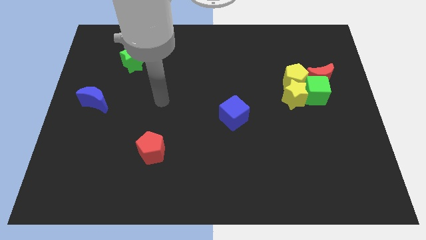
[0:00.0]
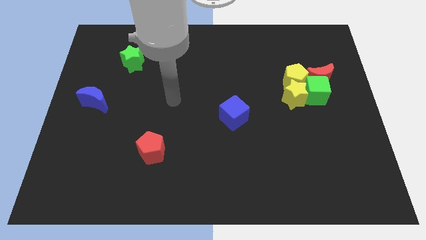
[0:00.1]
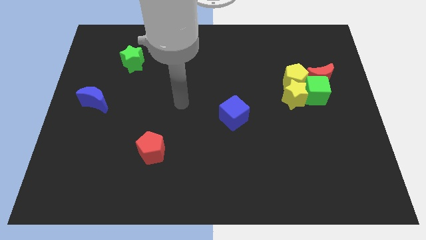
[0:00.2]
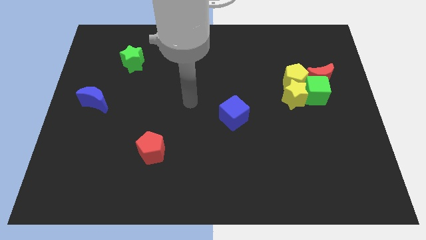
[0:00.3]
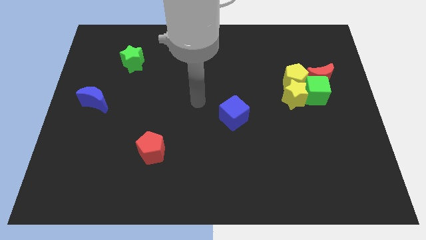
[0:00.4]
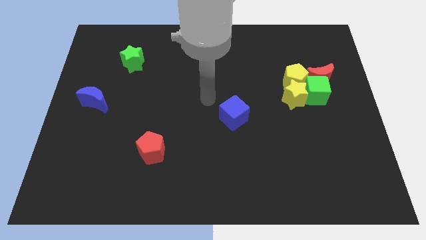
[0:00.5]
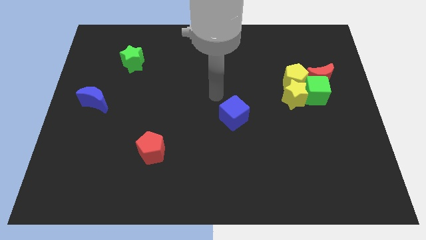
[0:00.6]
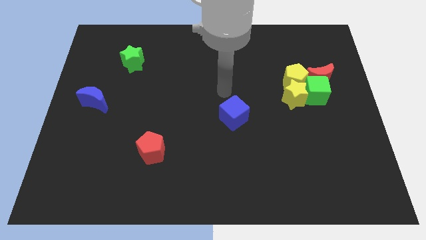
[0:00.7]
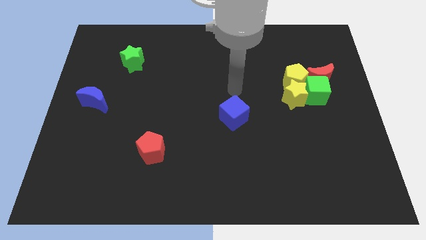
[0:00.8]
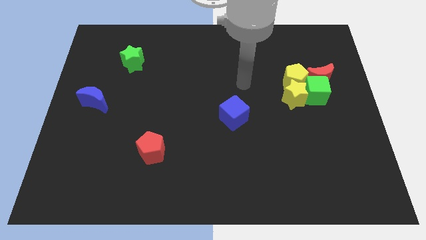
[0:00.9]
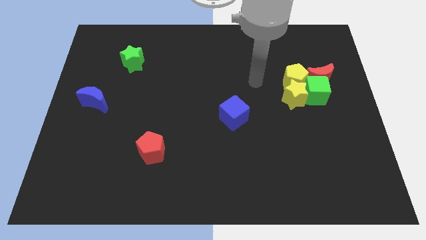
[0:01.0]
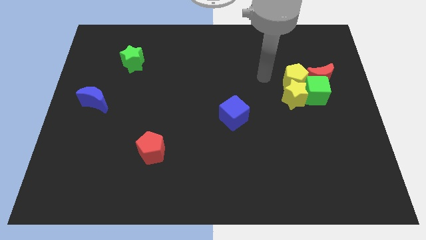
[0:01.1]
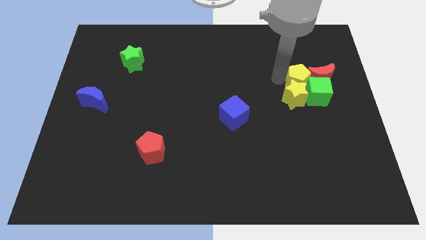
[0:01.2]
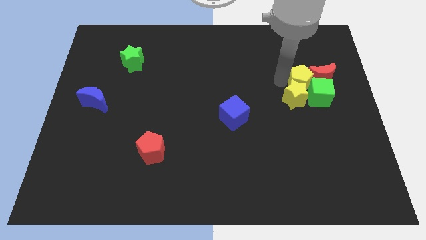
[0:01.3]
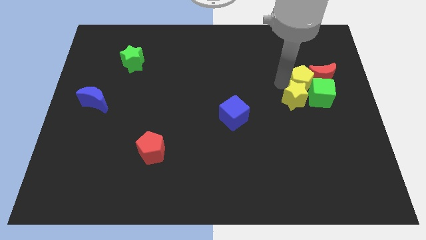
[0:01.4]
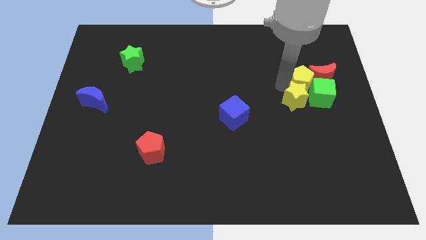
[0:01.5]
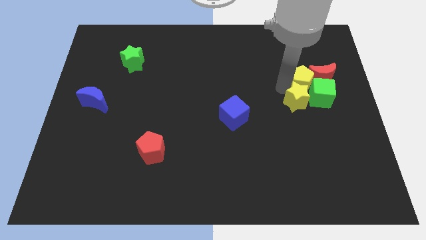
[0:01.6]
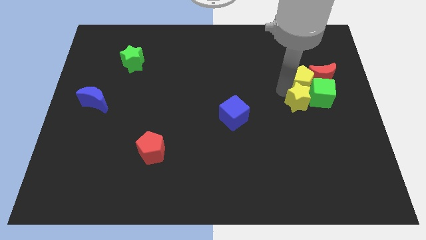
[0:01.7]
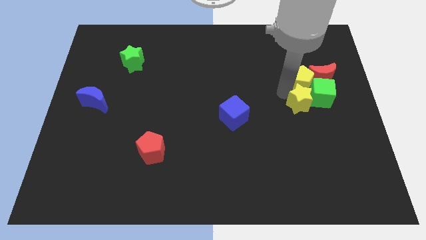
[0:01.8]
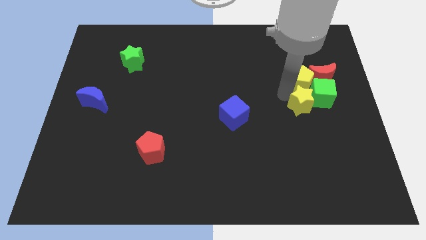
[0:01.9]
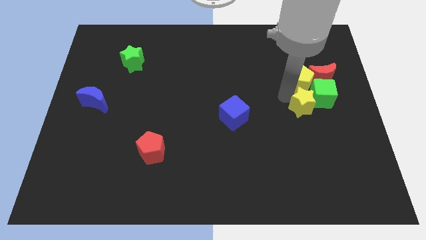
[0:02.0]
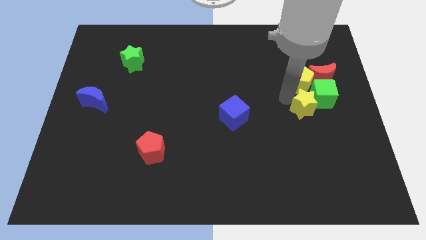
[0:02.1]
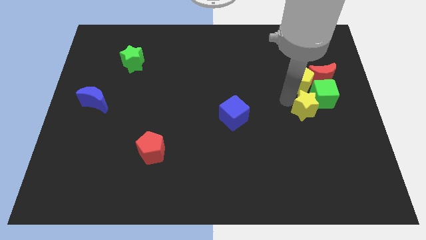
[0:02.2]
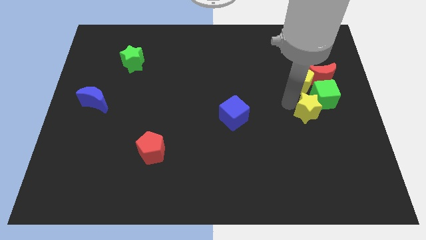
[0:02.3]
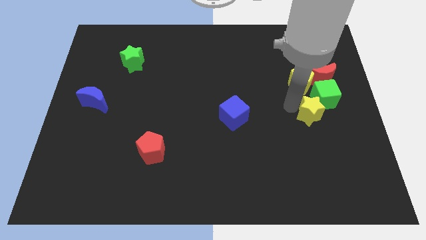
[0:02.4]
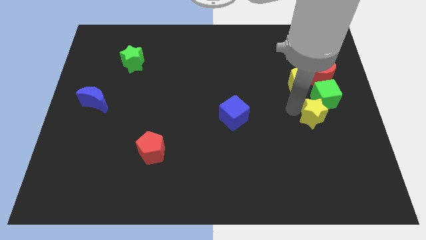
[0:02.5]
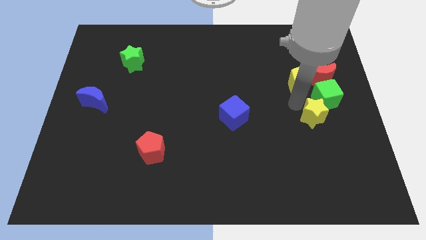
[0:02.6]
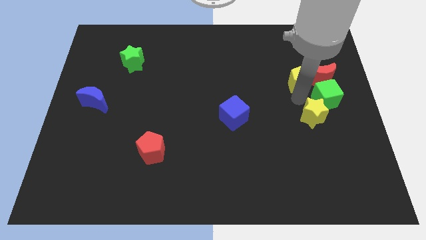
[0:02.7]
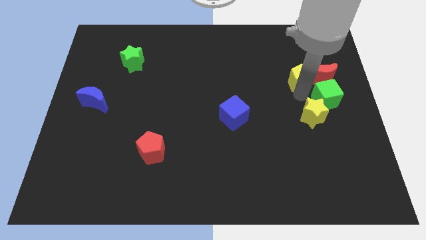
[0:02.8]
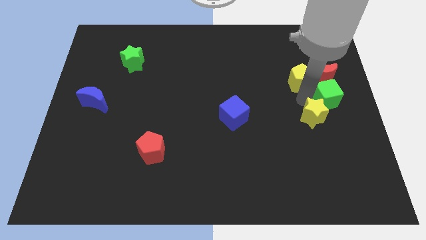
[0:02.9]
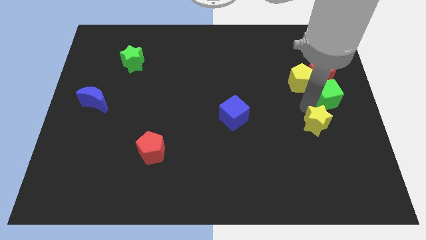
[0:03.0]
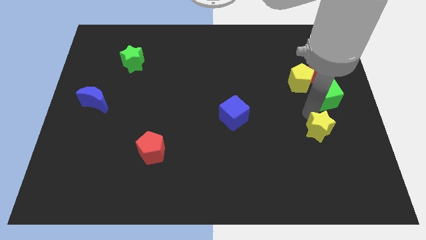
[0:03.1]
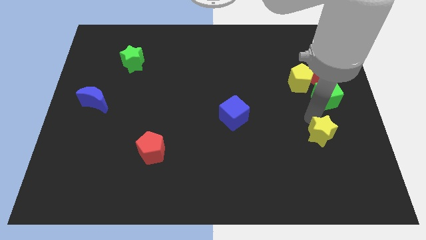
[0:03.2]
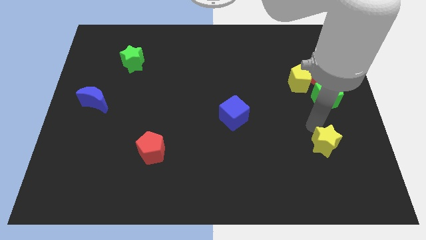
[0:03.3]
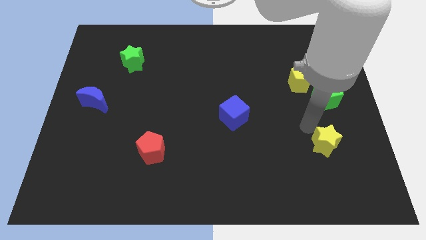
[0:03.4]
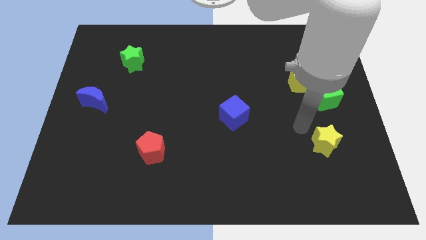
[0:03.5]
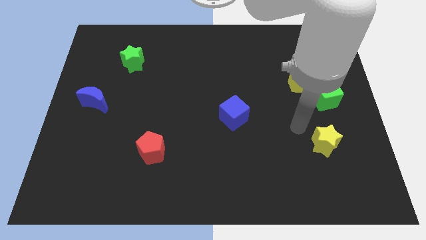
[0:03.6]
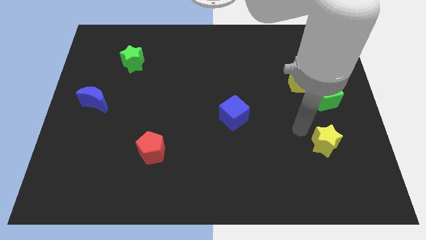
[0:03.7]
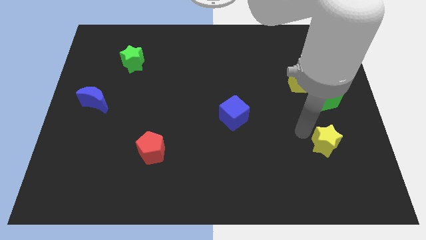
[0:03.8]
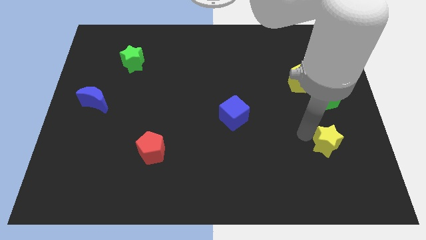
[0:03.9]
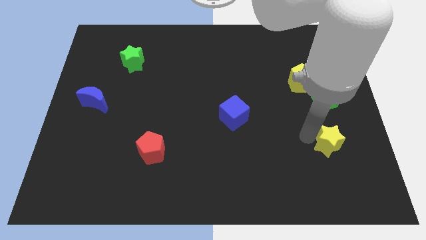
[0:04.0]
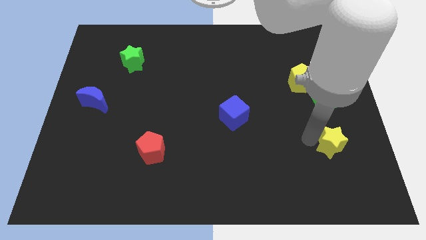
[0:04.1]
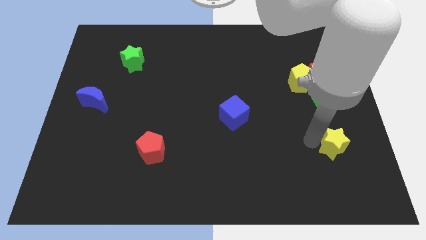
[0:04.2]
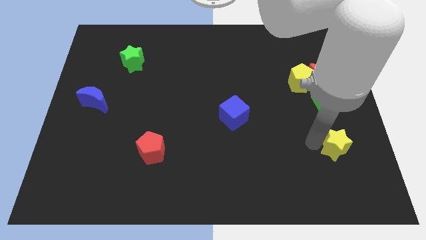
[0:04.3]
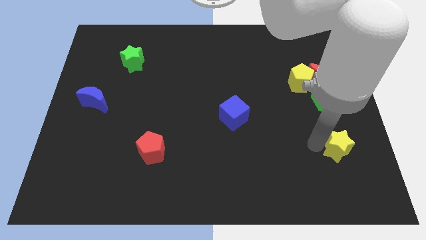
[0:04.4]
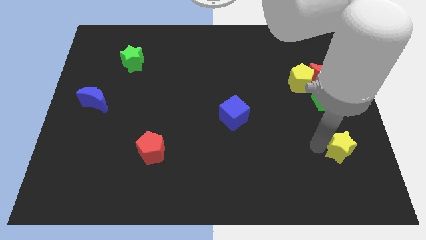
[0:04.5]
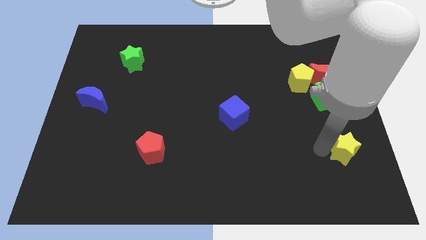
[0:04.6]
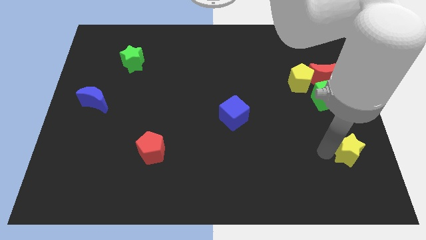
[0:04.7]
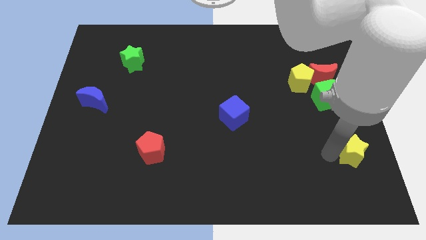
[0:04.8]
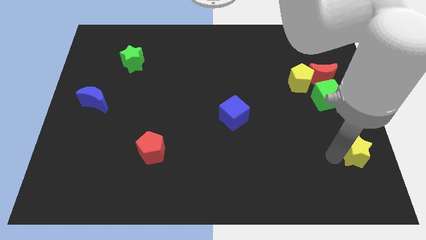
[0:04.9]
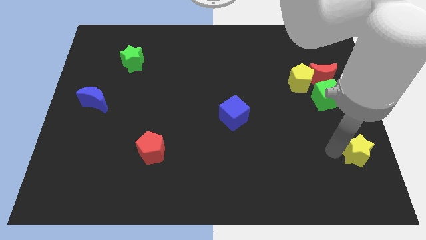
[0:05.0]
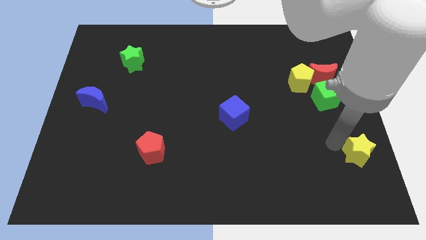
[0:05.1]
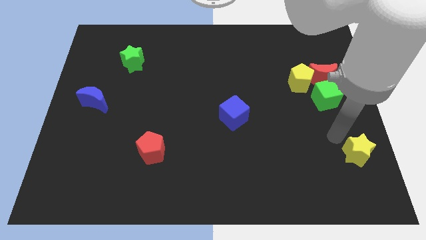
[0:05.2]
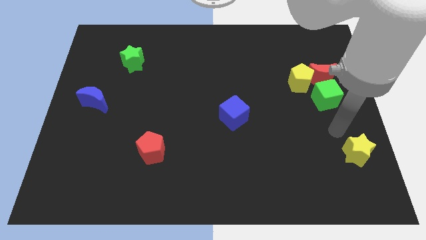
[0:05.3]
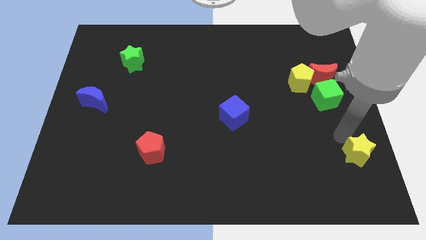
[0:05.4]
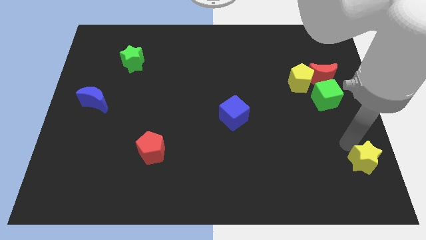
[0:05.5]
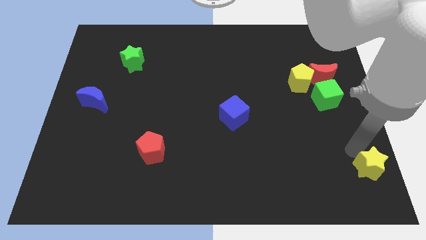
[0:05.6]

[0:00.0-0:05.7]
push the yellow star to the bottom right

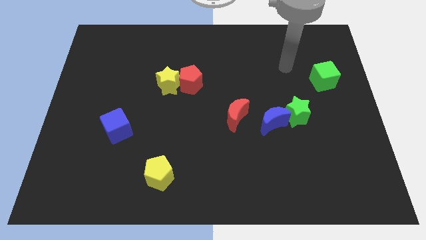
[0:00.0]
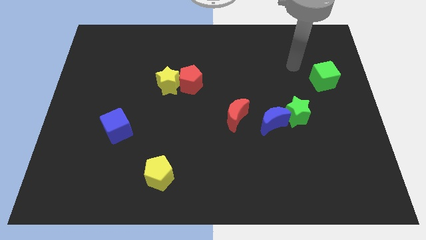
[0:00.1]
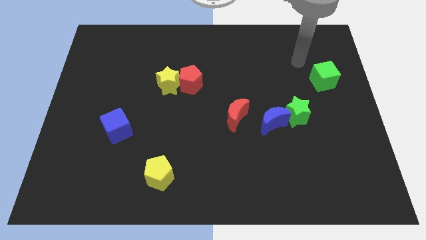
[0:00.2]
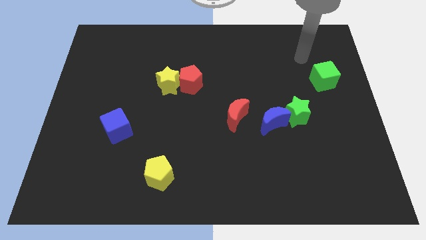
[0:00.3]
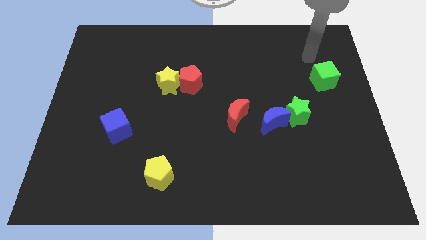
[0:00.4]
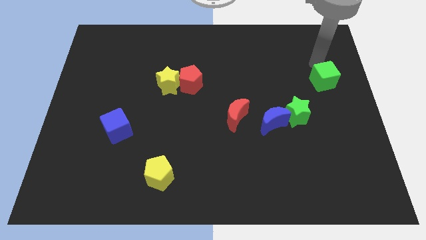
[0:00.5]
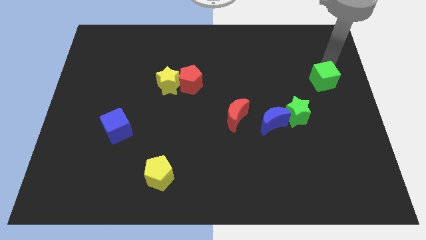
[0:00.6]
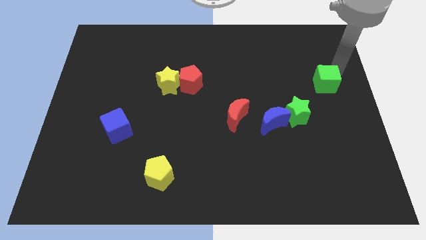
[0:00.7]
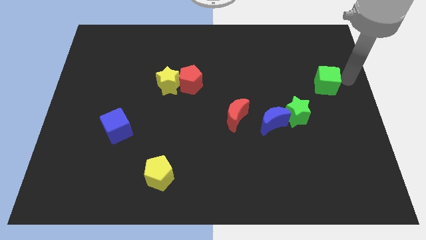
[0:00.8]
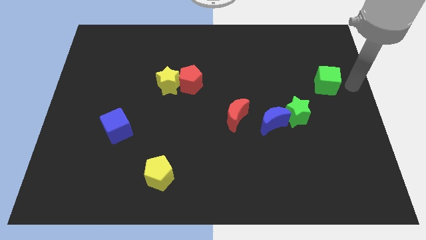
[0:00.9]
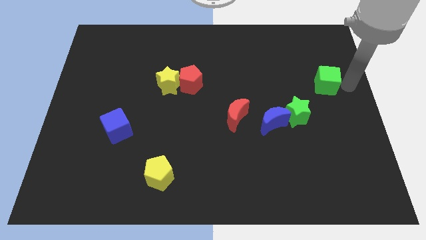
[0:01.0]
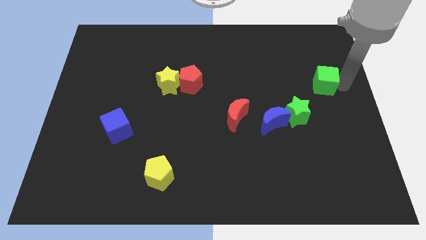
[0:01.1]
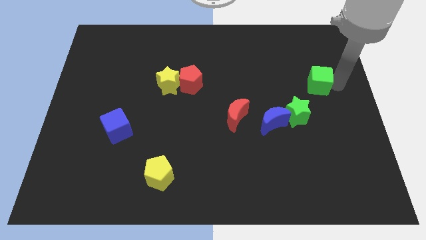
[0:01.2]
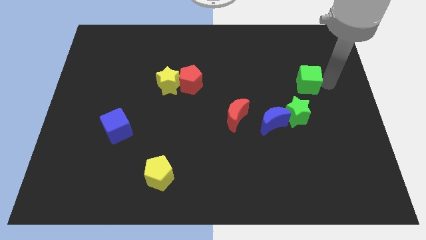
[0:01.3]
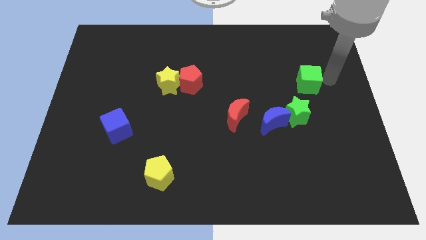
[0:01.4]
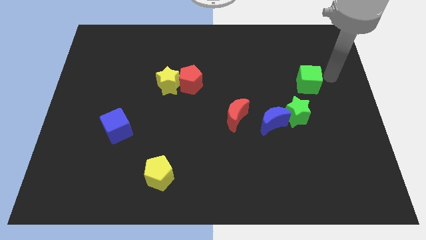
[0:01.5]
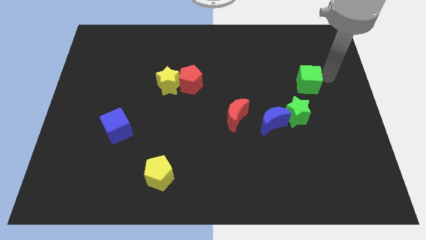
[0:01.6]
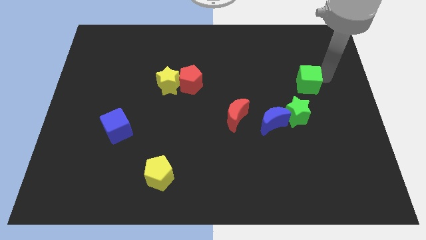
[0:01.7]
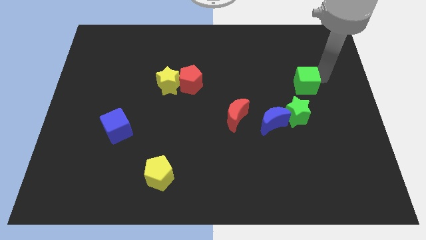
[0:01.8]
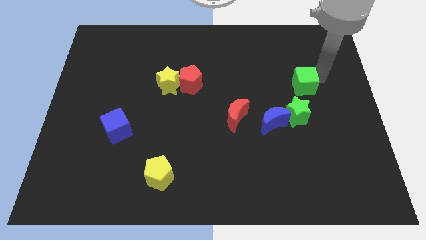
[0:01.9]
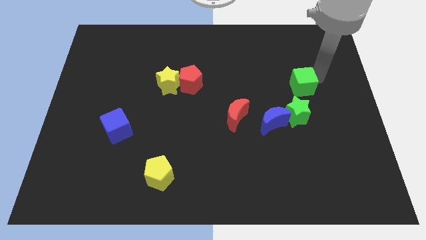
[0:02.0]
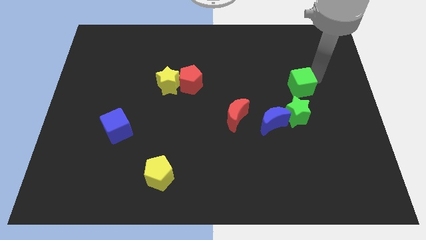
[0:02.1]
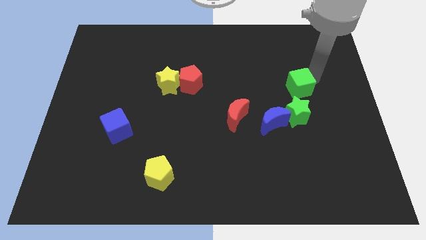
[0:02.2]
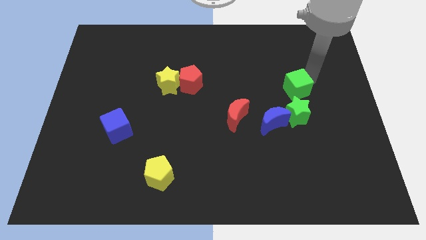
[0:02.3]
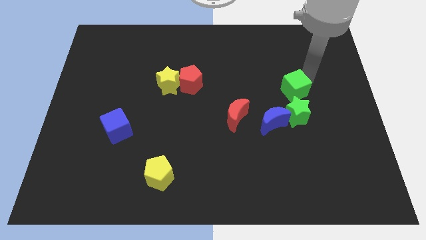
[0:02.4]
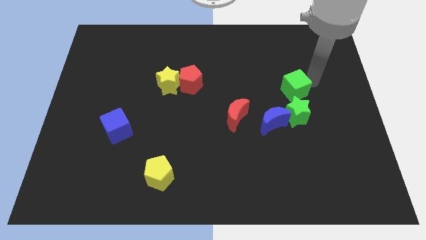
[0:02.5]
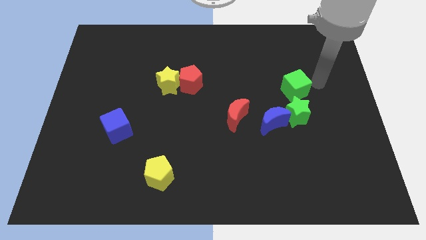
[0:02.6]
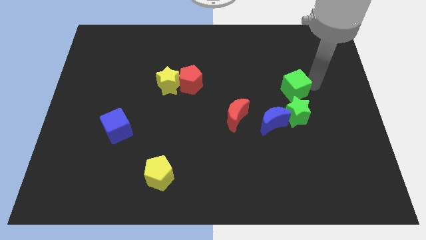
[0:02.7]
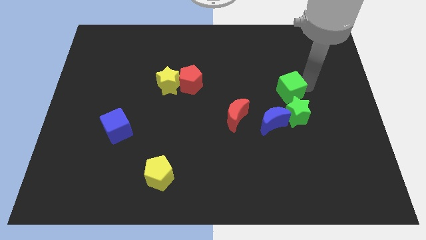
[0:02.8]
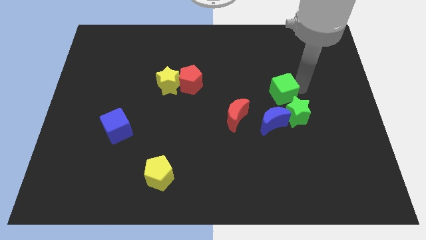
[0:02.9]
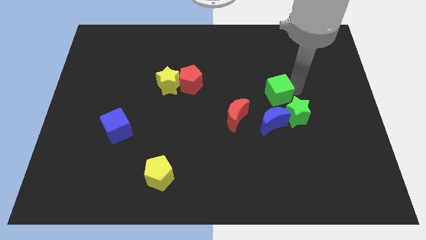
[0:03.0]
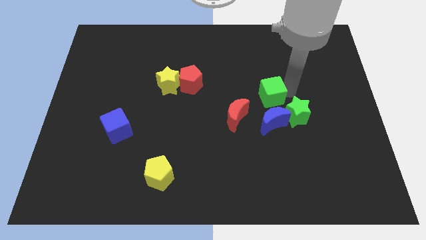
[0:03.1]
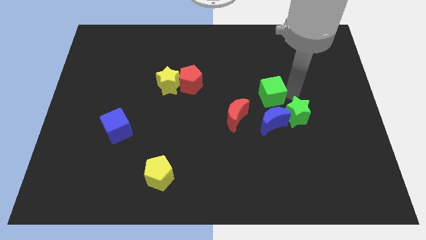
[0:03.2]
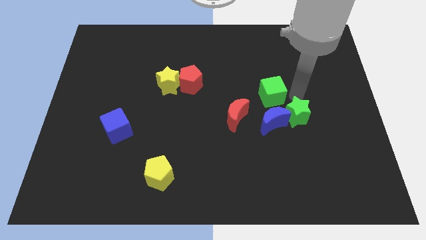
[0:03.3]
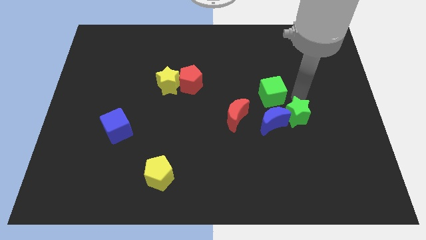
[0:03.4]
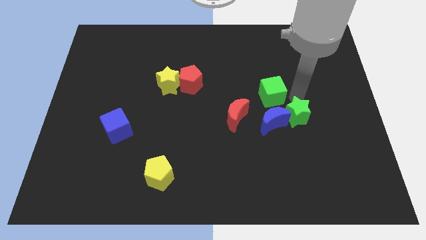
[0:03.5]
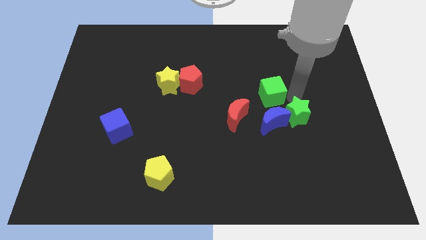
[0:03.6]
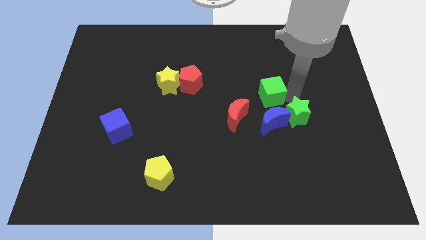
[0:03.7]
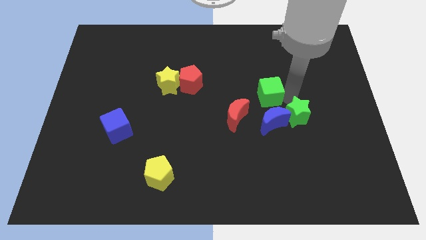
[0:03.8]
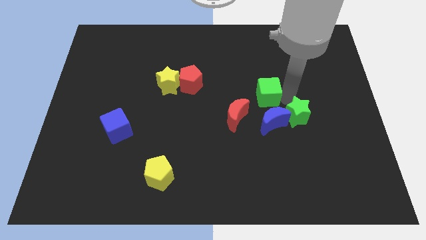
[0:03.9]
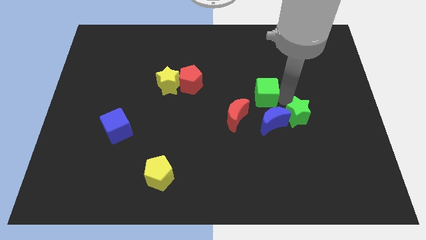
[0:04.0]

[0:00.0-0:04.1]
move the green cube to the middle
